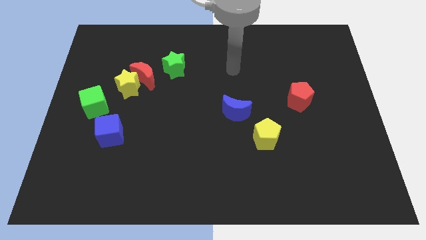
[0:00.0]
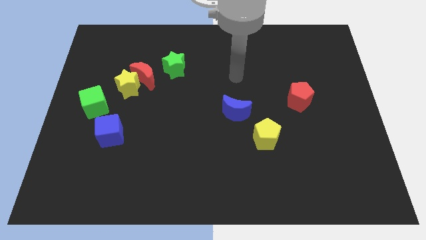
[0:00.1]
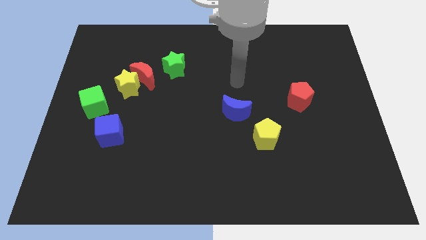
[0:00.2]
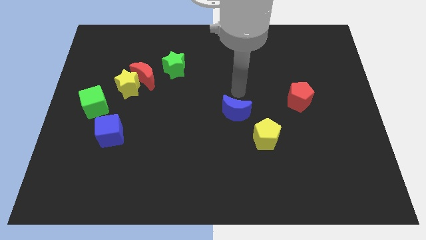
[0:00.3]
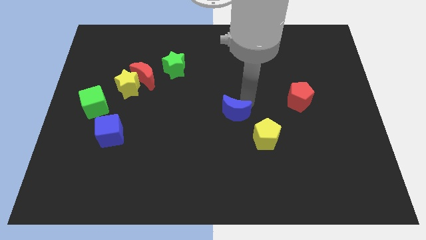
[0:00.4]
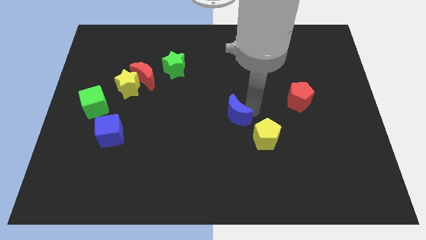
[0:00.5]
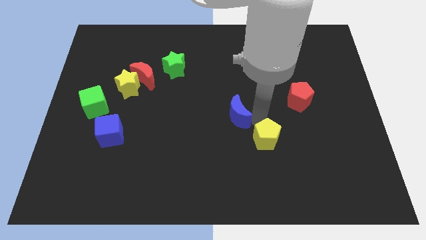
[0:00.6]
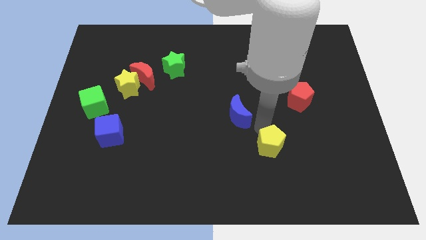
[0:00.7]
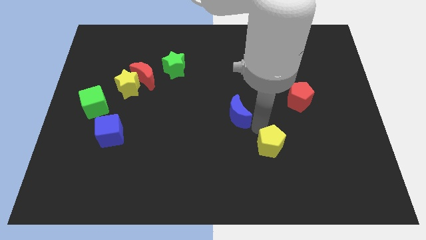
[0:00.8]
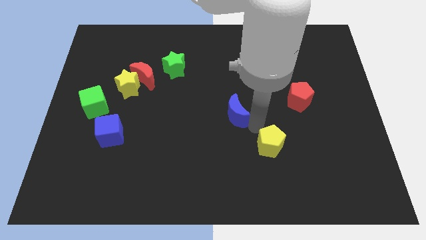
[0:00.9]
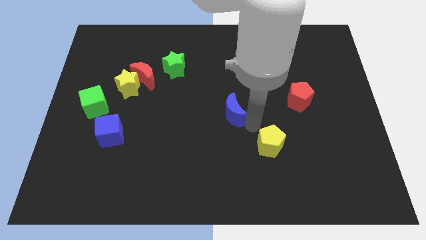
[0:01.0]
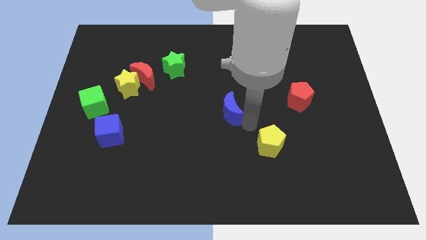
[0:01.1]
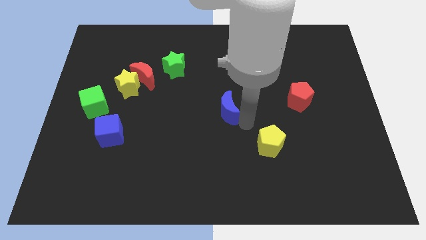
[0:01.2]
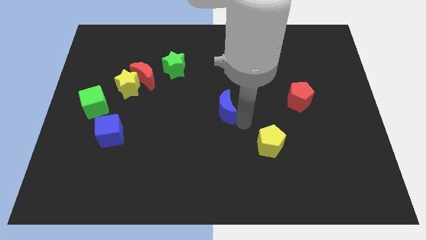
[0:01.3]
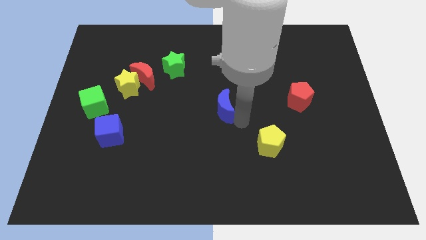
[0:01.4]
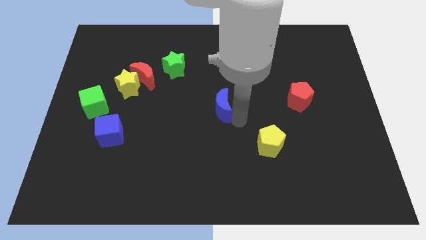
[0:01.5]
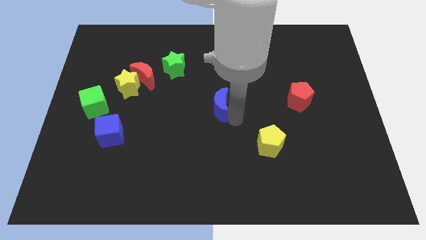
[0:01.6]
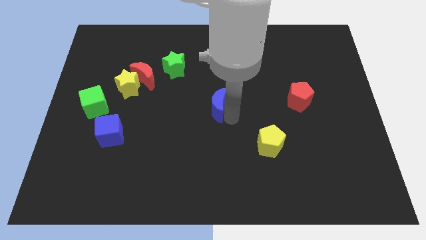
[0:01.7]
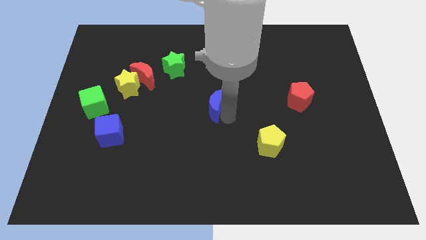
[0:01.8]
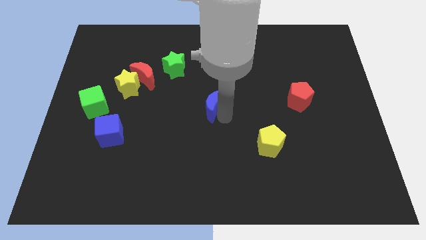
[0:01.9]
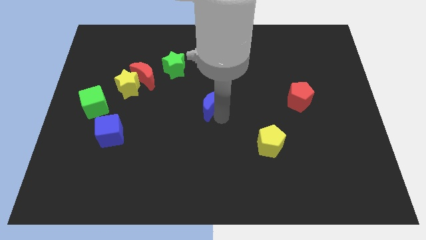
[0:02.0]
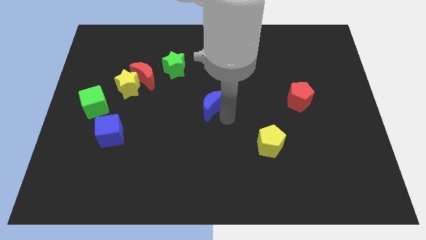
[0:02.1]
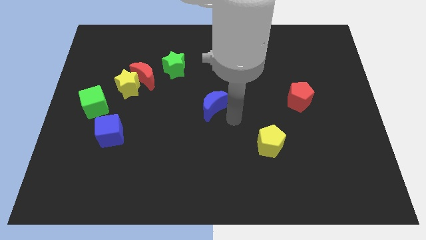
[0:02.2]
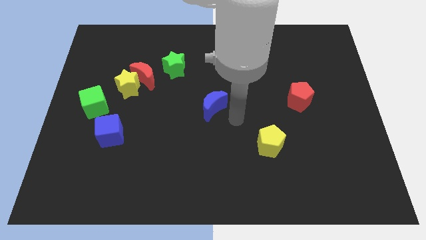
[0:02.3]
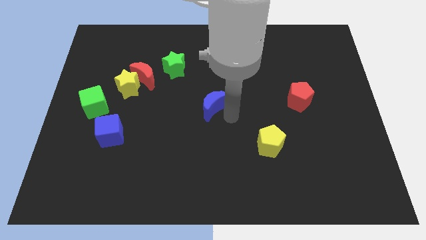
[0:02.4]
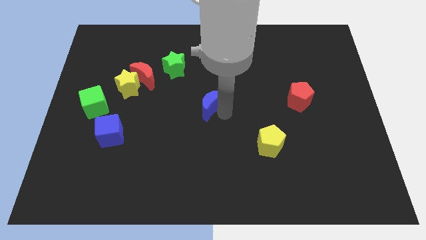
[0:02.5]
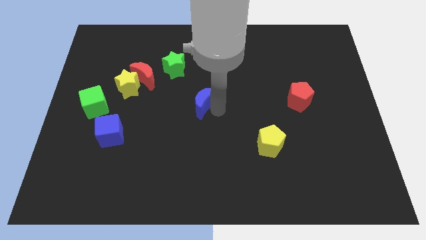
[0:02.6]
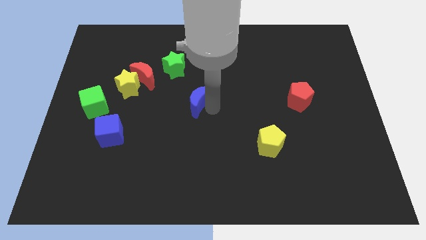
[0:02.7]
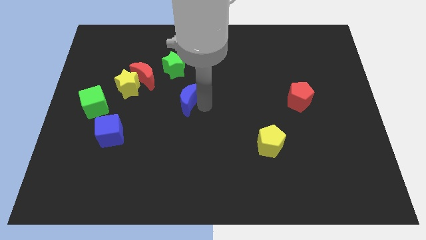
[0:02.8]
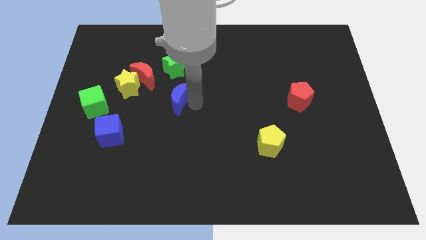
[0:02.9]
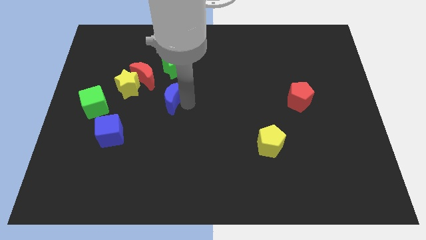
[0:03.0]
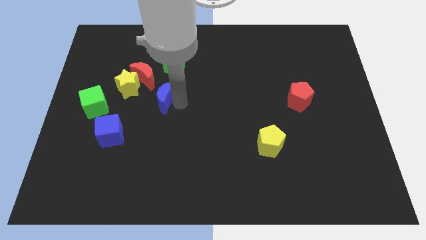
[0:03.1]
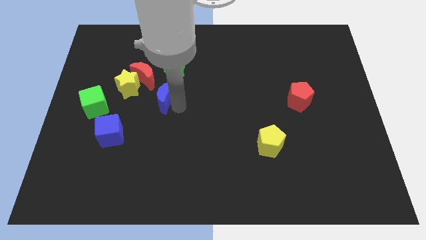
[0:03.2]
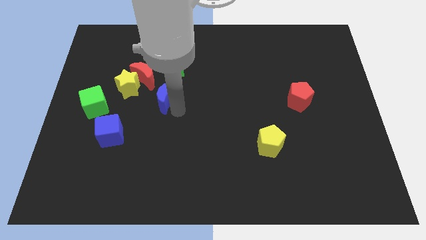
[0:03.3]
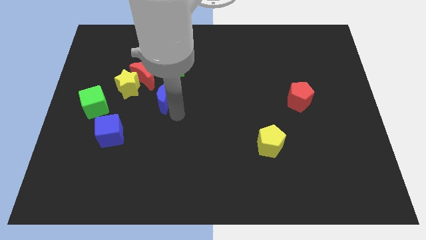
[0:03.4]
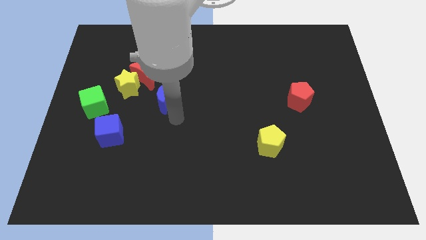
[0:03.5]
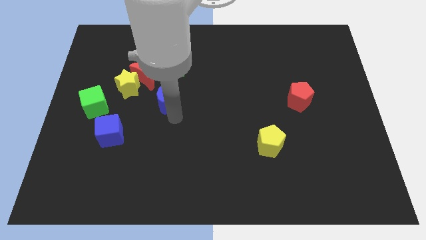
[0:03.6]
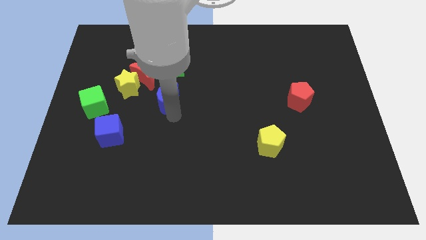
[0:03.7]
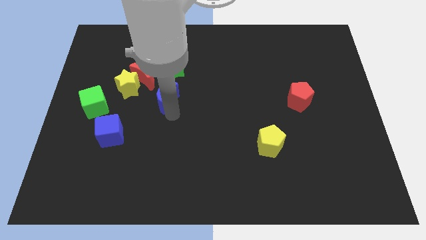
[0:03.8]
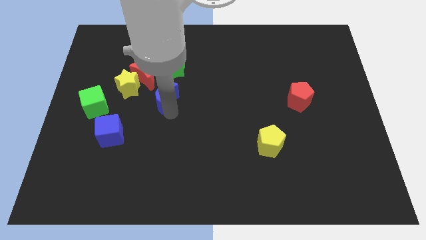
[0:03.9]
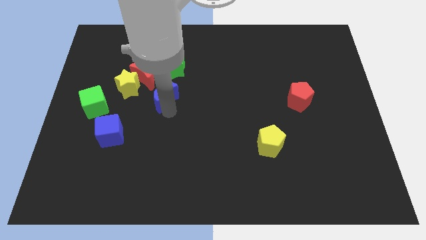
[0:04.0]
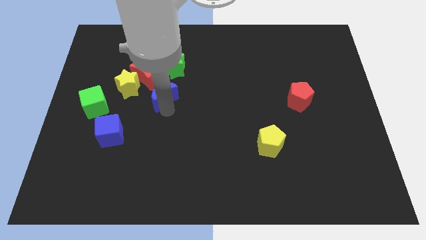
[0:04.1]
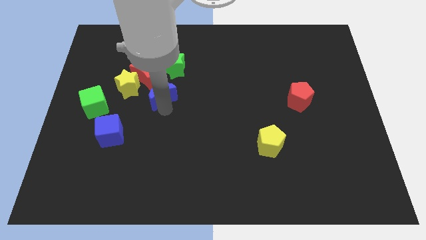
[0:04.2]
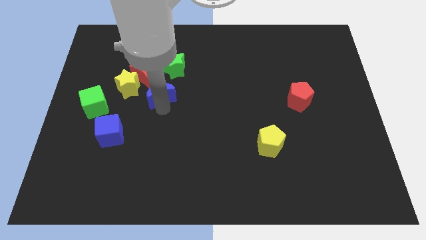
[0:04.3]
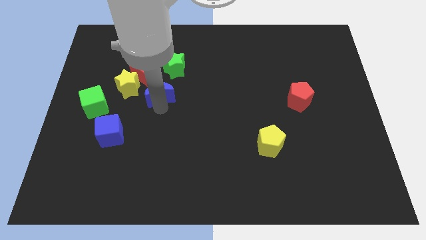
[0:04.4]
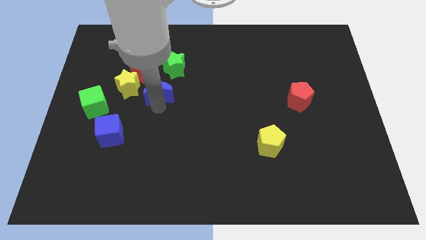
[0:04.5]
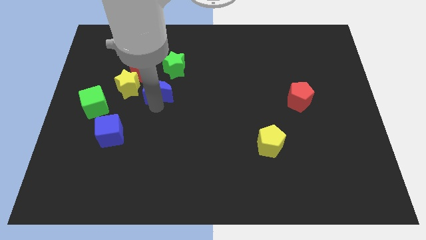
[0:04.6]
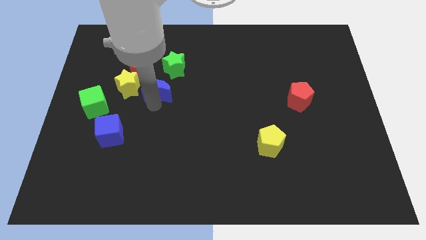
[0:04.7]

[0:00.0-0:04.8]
push the blue moon to the red moon

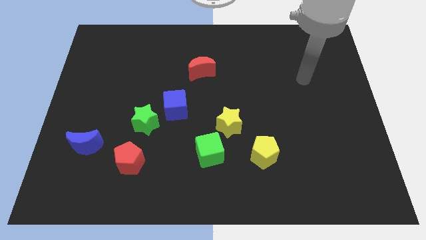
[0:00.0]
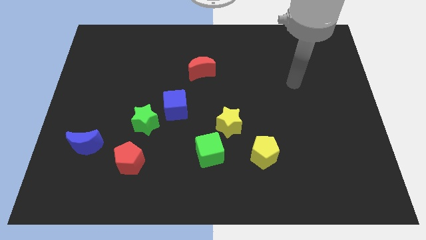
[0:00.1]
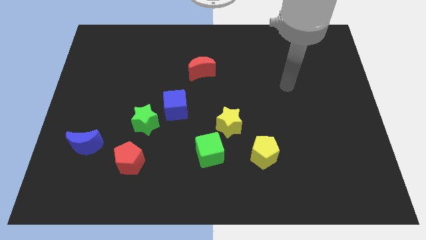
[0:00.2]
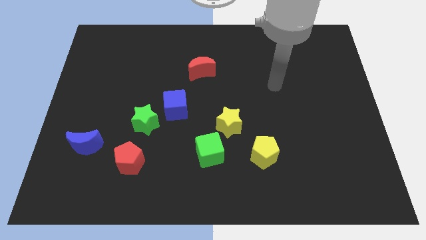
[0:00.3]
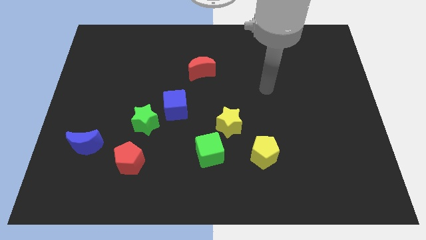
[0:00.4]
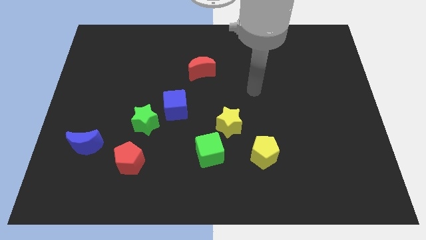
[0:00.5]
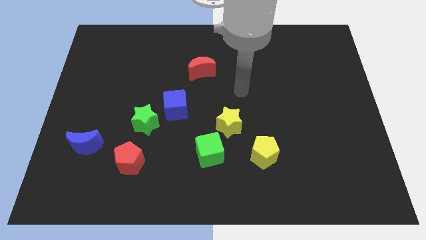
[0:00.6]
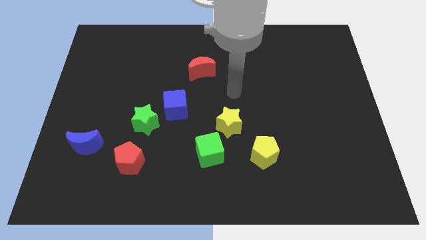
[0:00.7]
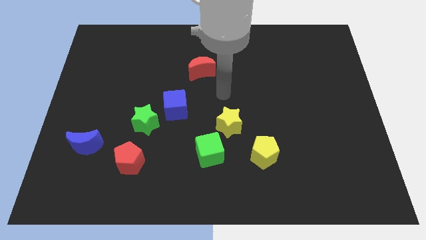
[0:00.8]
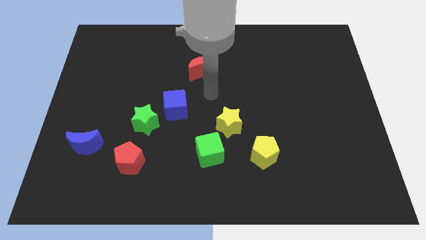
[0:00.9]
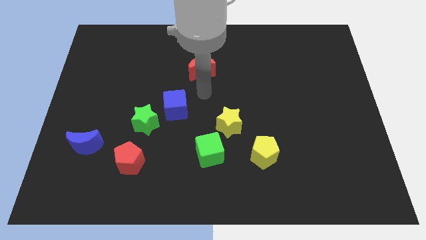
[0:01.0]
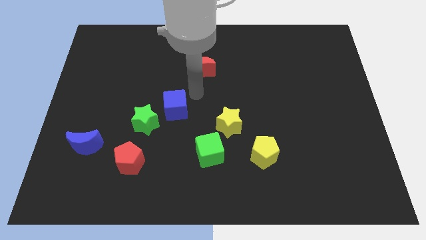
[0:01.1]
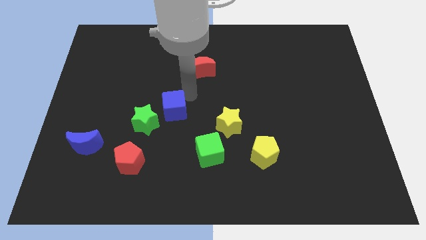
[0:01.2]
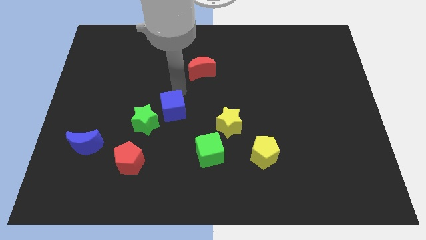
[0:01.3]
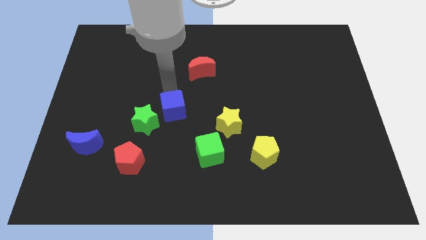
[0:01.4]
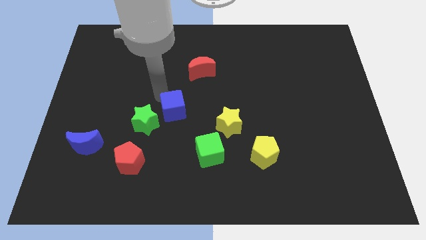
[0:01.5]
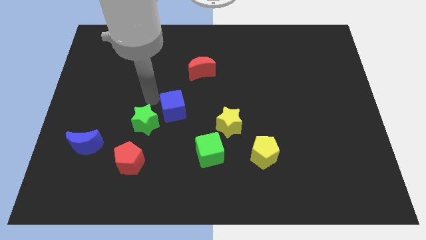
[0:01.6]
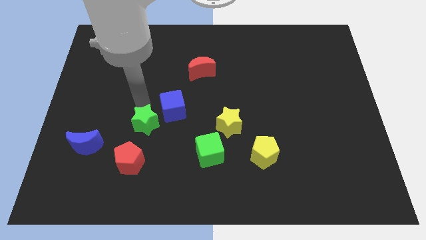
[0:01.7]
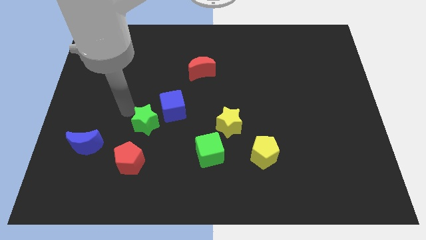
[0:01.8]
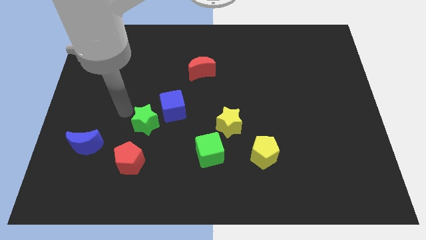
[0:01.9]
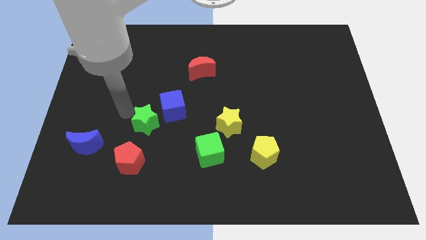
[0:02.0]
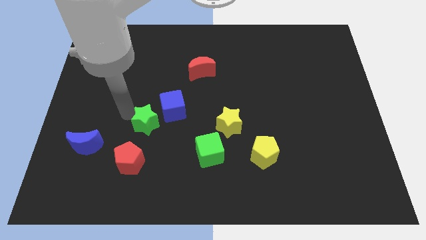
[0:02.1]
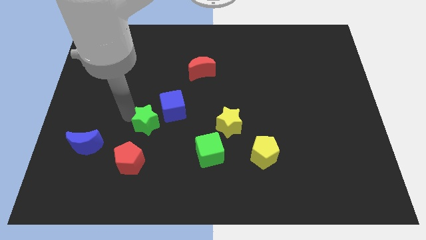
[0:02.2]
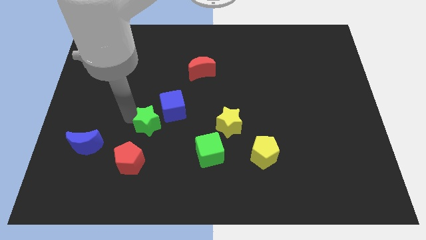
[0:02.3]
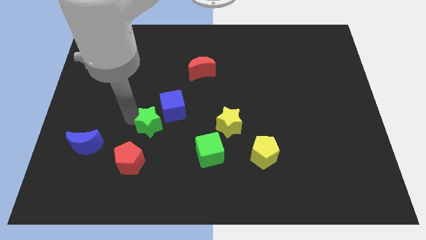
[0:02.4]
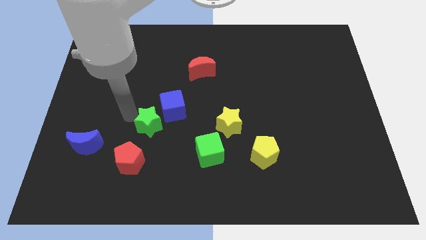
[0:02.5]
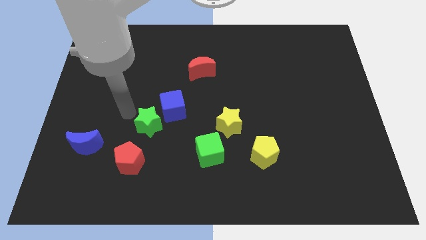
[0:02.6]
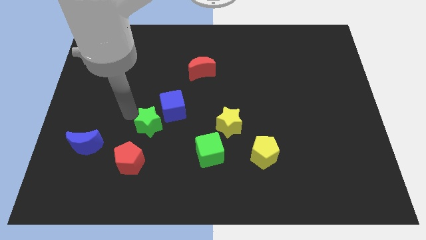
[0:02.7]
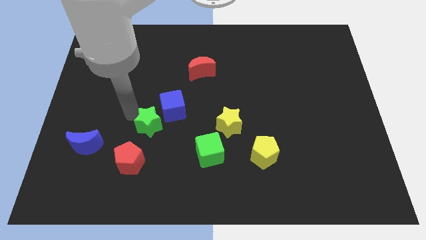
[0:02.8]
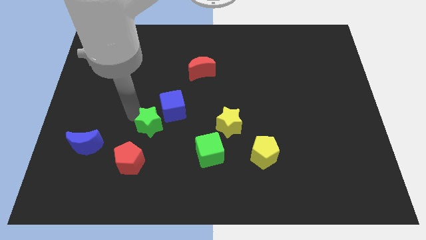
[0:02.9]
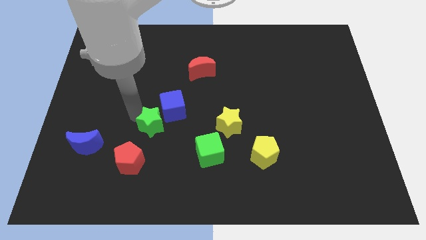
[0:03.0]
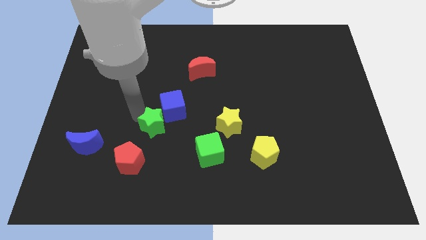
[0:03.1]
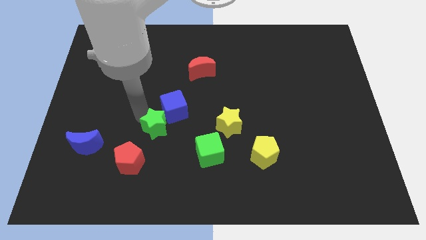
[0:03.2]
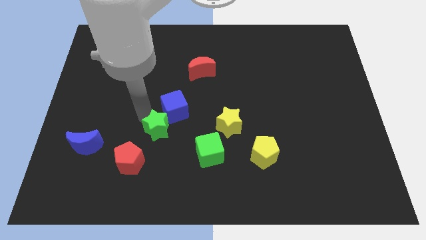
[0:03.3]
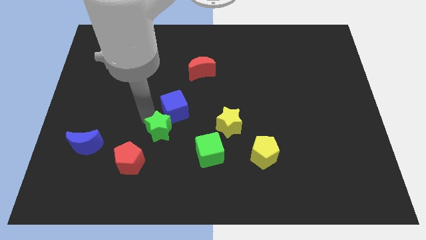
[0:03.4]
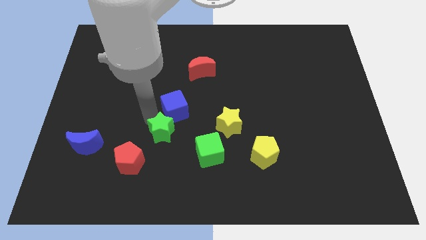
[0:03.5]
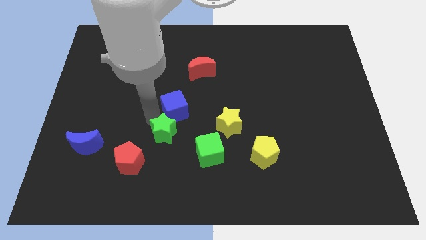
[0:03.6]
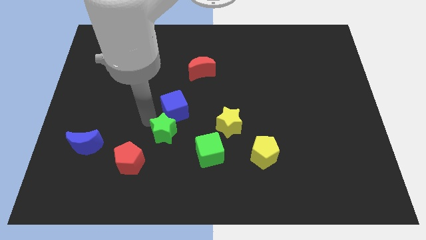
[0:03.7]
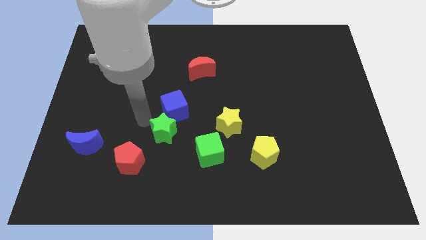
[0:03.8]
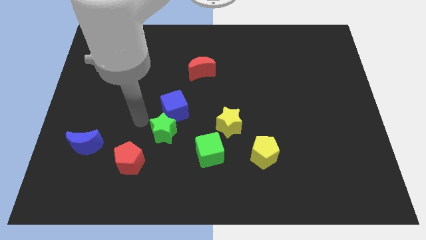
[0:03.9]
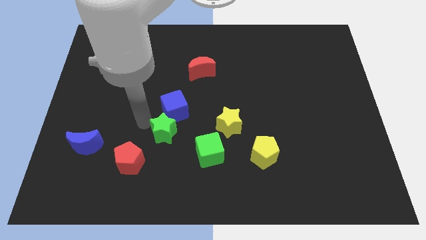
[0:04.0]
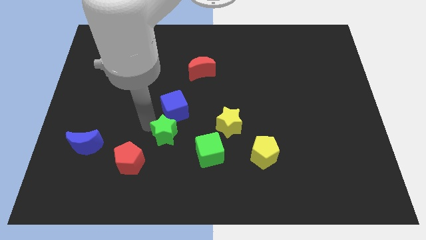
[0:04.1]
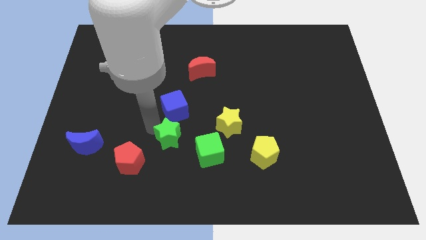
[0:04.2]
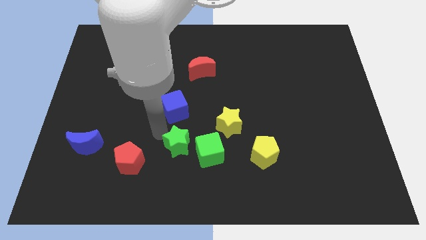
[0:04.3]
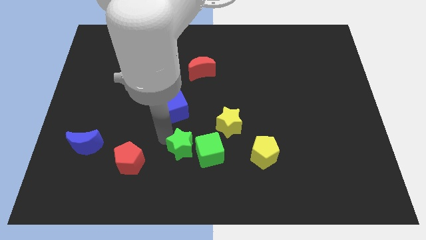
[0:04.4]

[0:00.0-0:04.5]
put the green star towards the green cube
